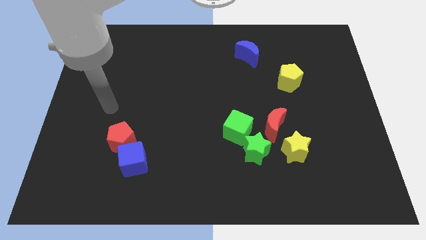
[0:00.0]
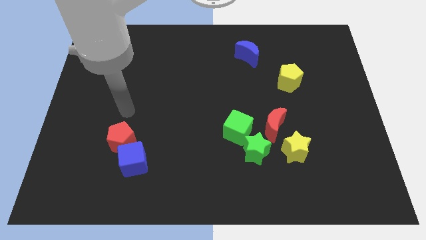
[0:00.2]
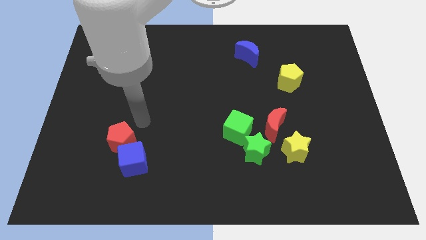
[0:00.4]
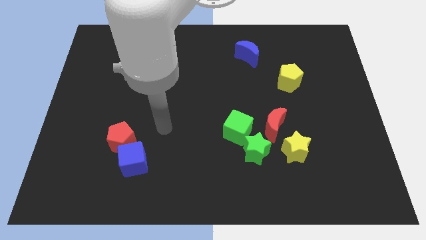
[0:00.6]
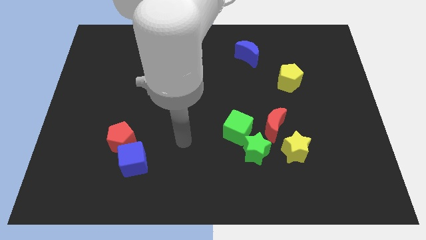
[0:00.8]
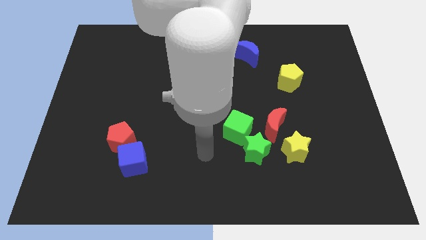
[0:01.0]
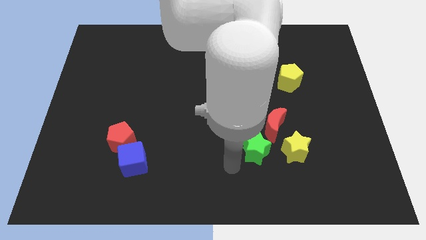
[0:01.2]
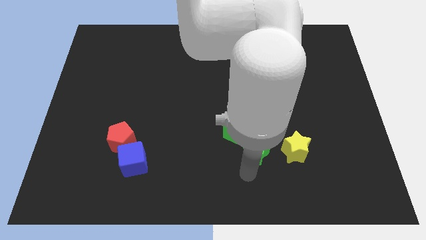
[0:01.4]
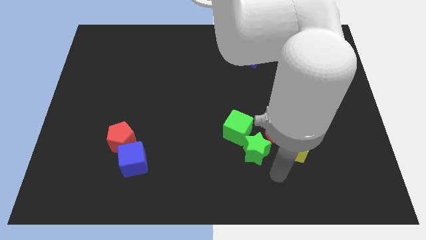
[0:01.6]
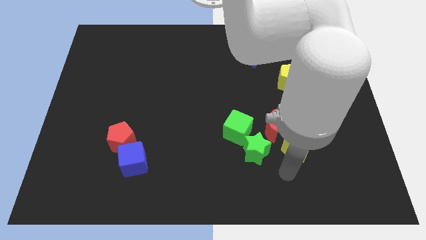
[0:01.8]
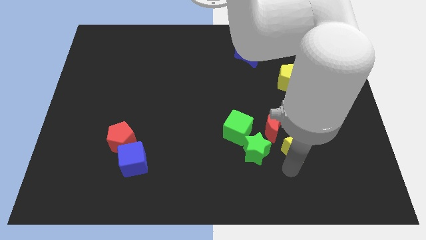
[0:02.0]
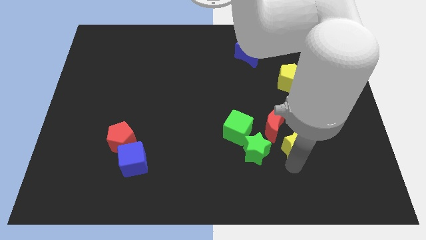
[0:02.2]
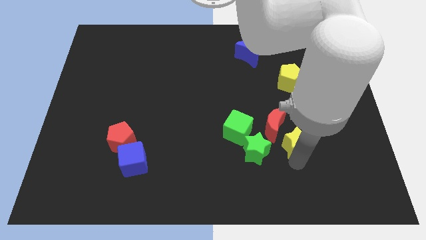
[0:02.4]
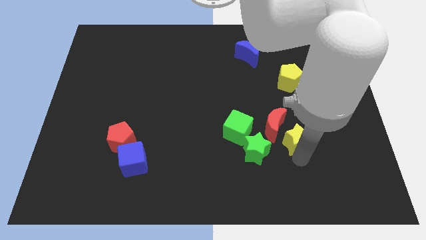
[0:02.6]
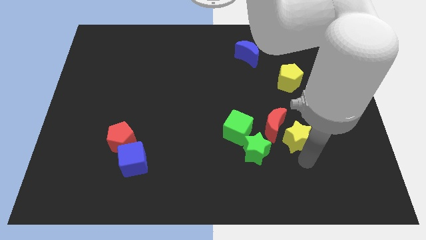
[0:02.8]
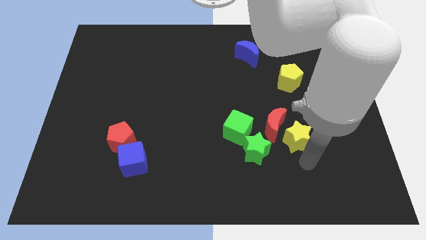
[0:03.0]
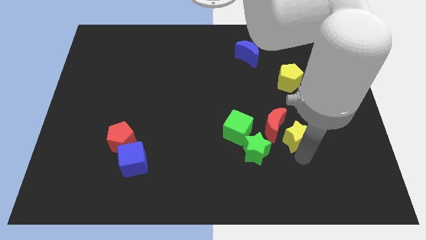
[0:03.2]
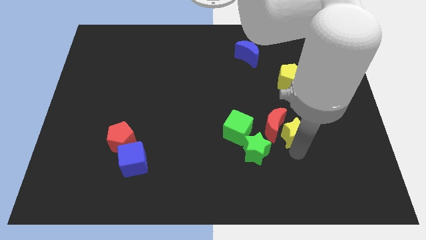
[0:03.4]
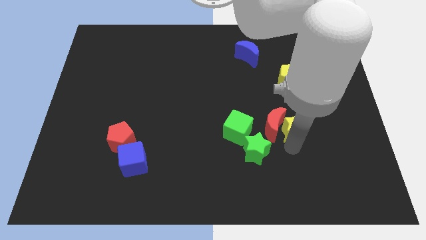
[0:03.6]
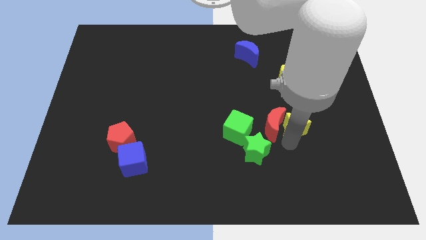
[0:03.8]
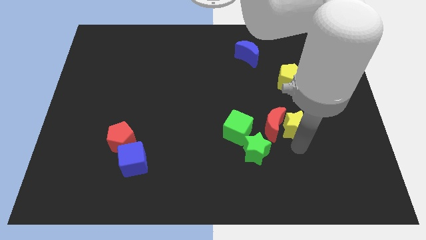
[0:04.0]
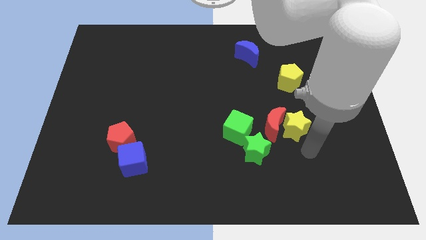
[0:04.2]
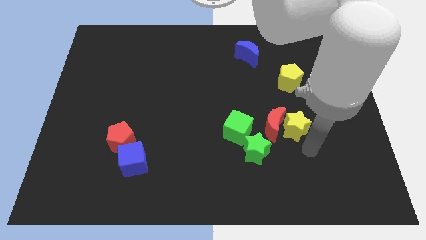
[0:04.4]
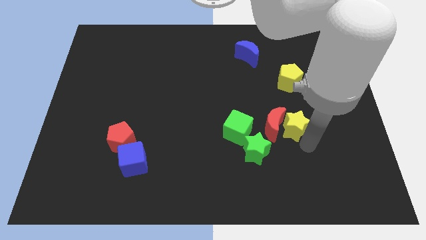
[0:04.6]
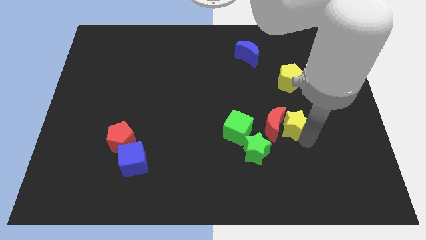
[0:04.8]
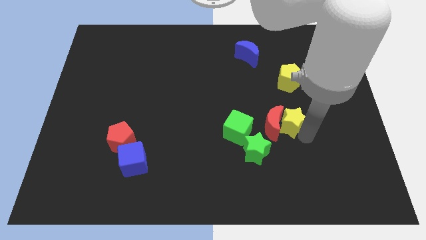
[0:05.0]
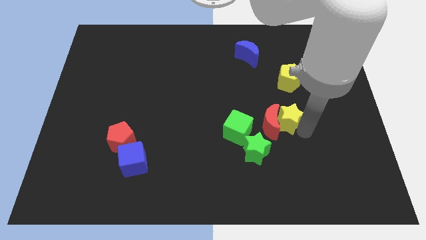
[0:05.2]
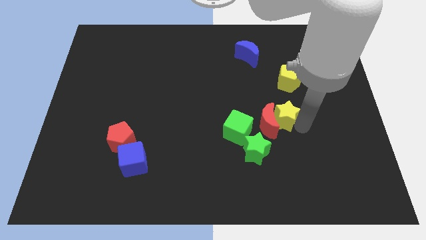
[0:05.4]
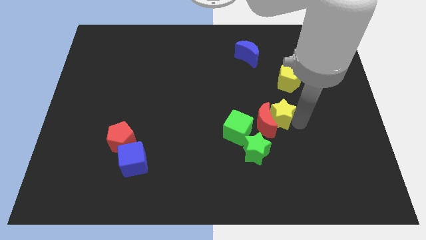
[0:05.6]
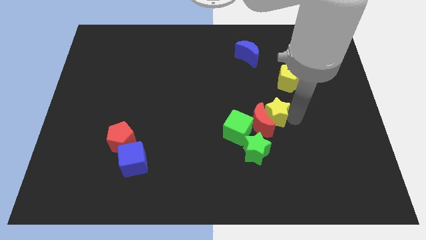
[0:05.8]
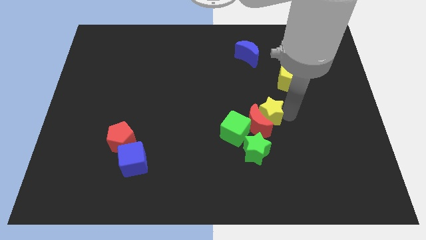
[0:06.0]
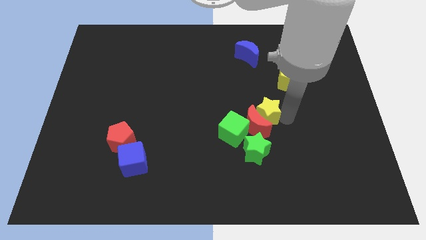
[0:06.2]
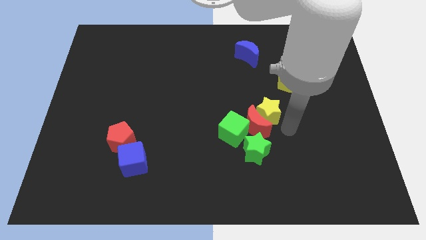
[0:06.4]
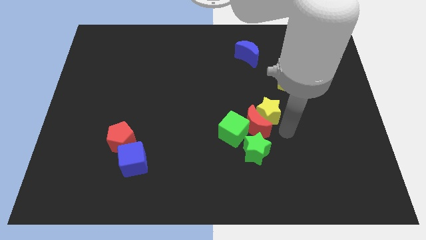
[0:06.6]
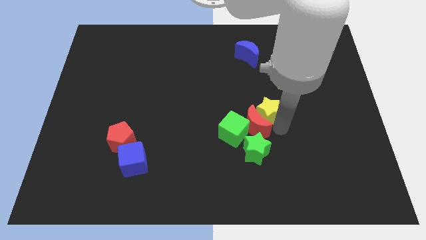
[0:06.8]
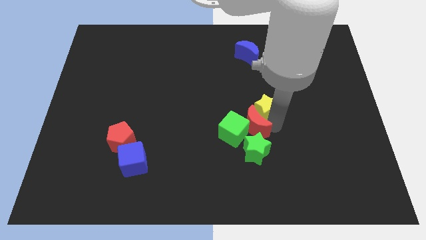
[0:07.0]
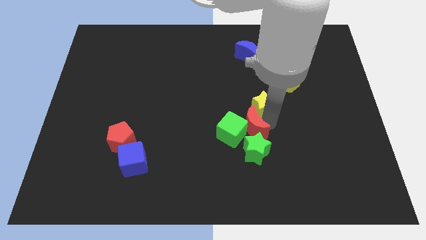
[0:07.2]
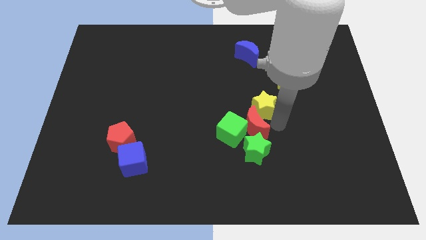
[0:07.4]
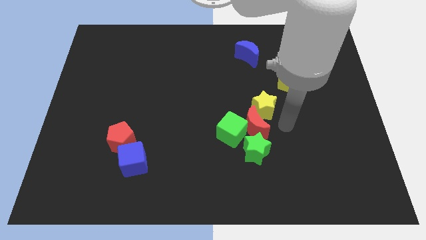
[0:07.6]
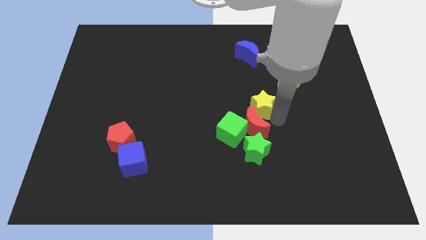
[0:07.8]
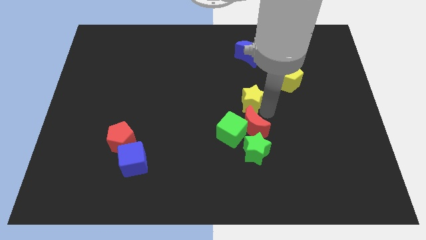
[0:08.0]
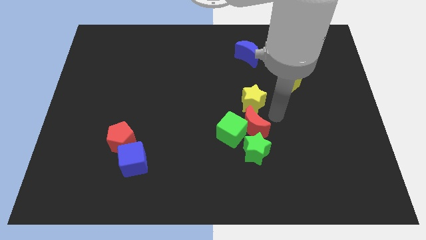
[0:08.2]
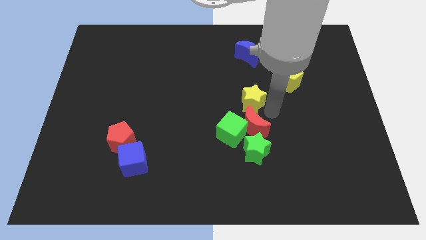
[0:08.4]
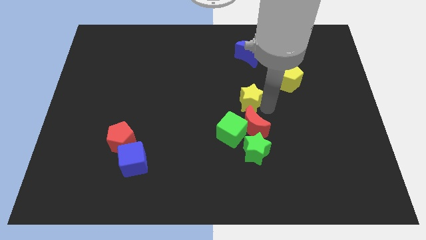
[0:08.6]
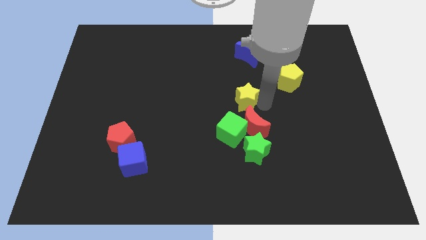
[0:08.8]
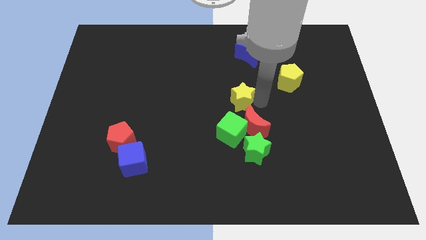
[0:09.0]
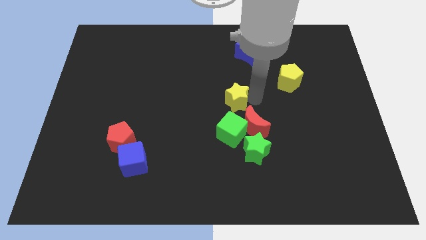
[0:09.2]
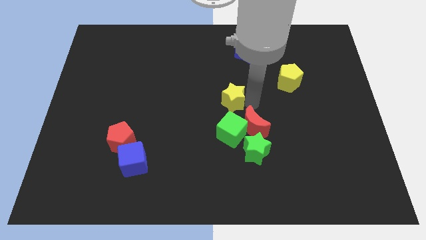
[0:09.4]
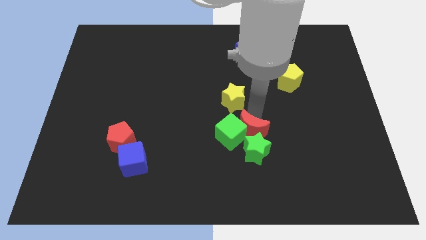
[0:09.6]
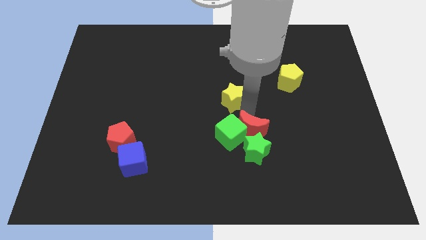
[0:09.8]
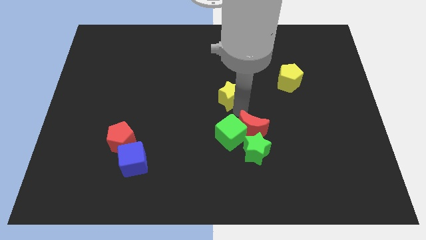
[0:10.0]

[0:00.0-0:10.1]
move the yellow star up and to the left

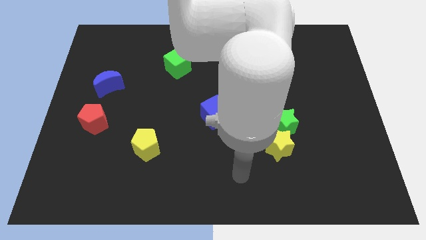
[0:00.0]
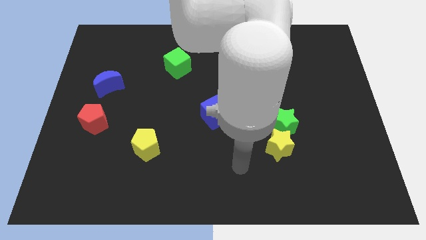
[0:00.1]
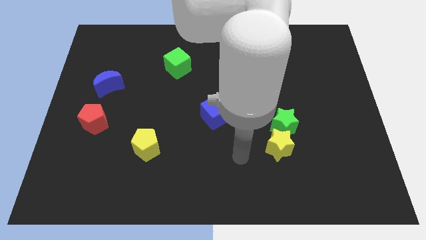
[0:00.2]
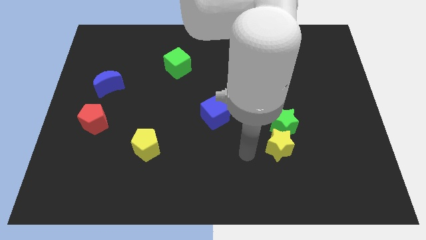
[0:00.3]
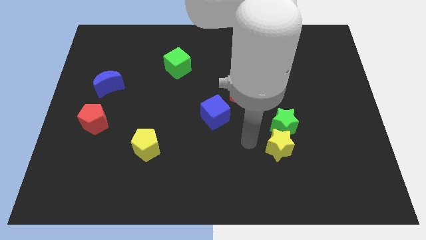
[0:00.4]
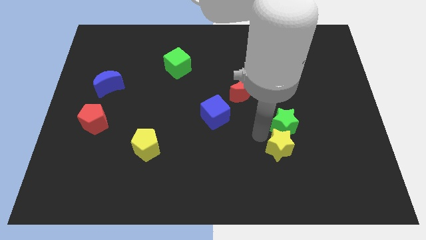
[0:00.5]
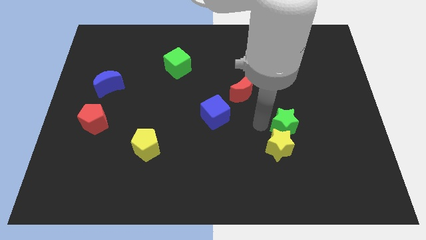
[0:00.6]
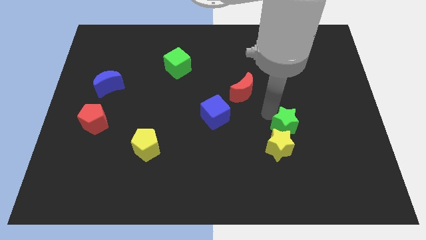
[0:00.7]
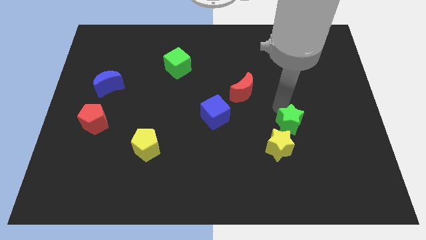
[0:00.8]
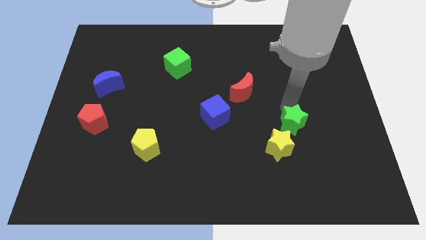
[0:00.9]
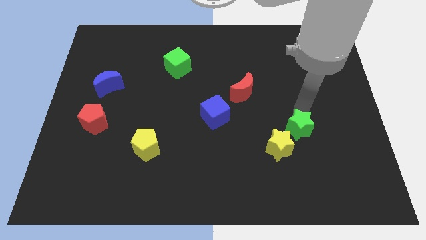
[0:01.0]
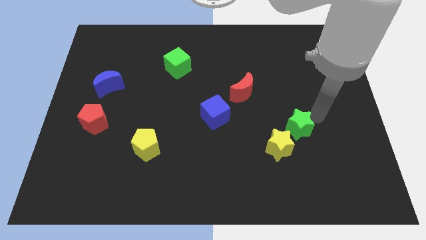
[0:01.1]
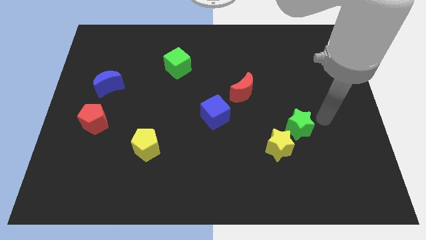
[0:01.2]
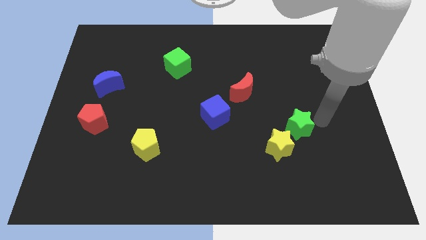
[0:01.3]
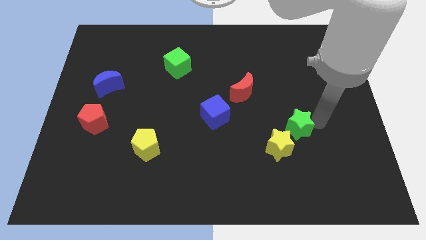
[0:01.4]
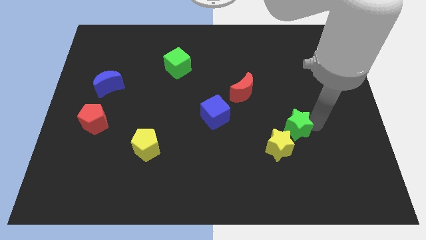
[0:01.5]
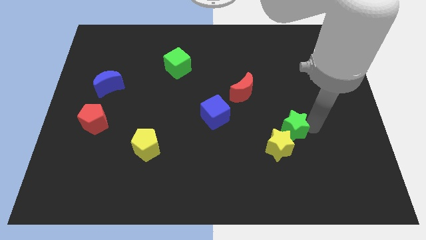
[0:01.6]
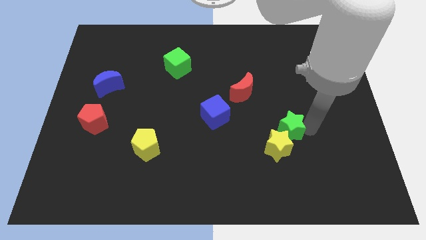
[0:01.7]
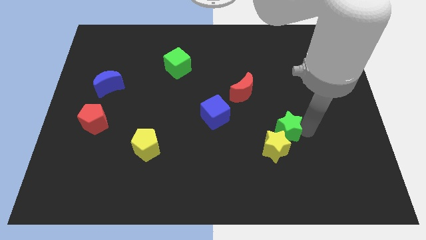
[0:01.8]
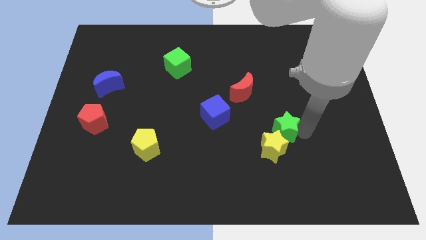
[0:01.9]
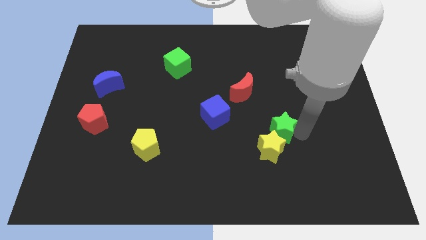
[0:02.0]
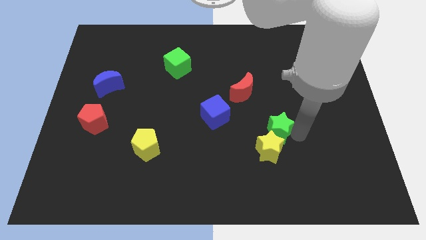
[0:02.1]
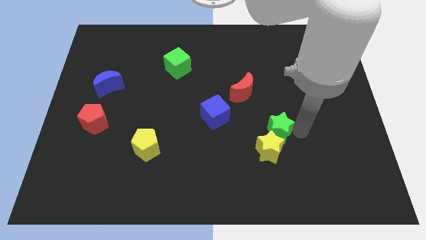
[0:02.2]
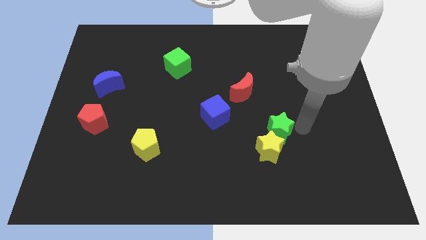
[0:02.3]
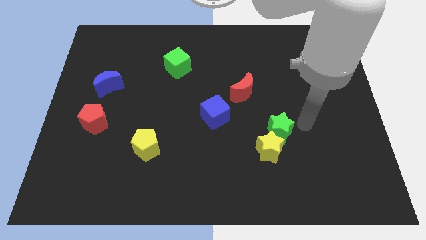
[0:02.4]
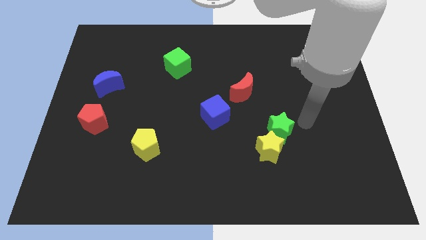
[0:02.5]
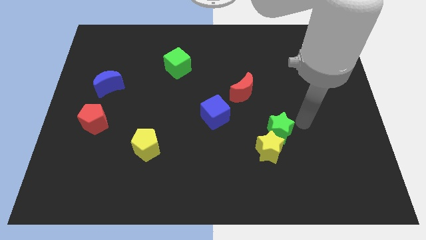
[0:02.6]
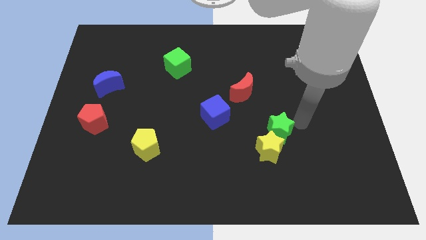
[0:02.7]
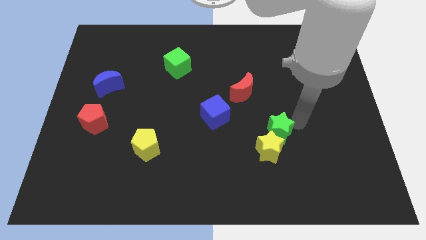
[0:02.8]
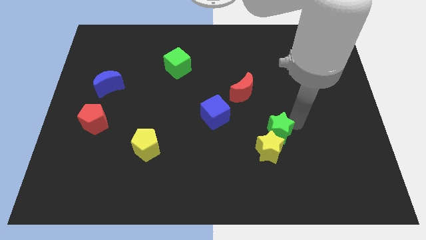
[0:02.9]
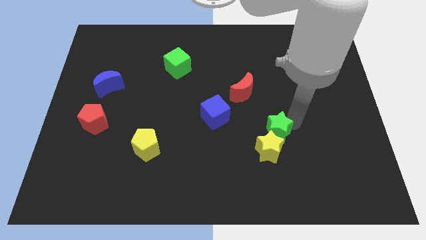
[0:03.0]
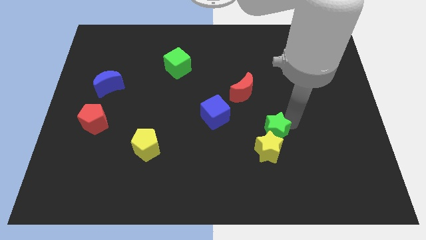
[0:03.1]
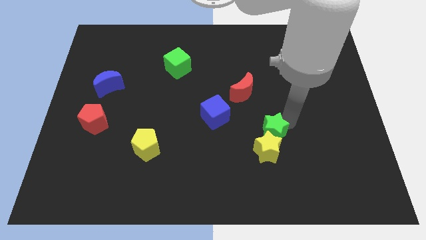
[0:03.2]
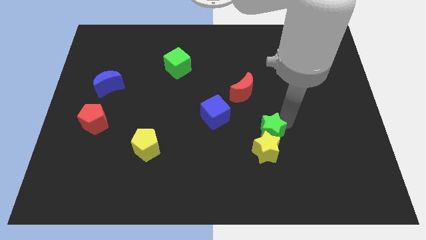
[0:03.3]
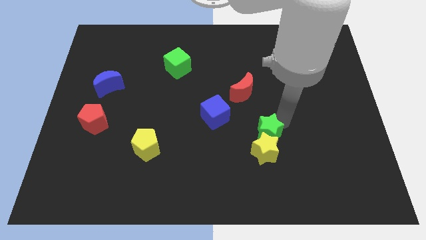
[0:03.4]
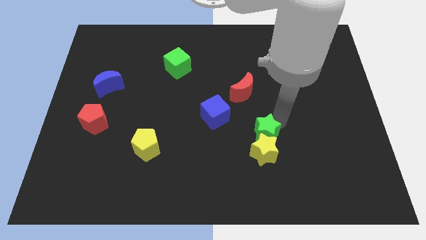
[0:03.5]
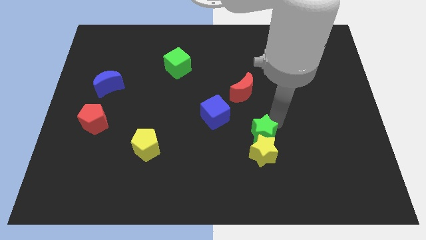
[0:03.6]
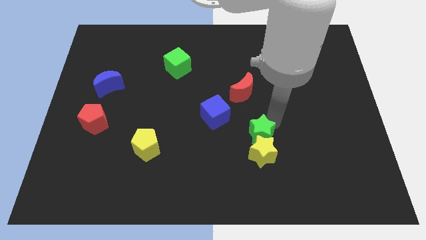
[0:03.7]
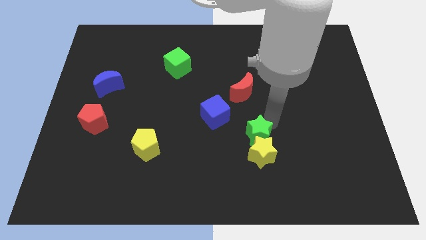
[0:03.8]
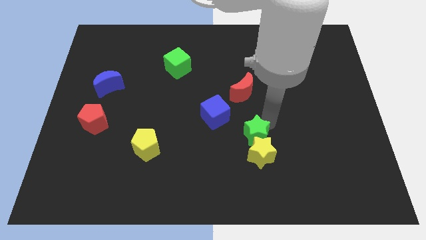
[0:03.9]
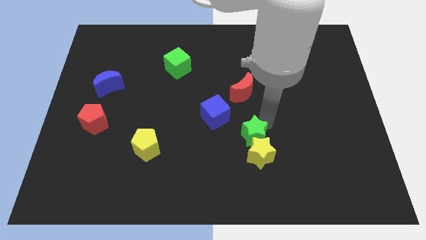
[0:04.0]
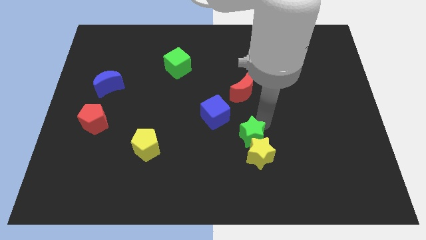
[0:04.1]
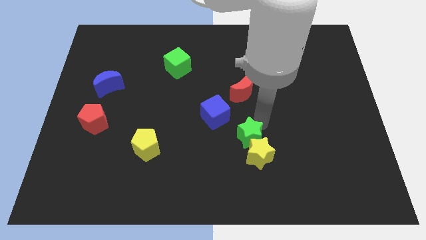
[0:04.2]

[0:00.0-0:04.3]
push the green star down and then to the left a bit
